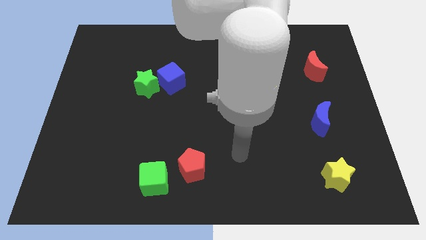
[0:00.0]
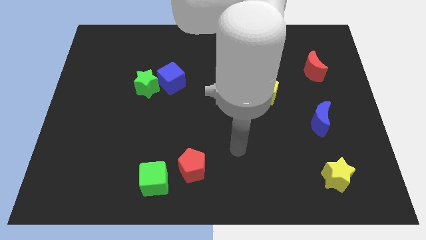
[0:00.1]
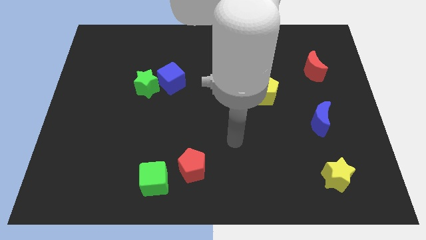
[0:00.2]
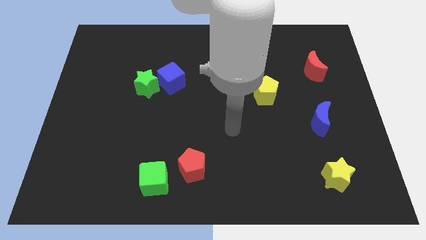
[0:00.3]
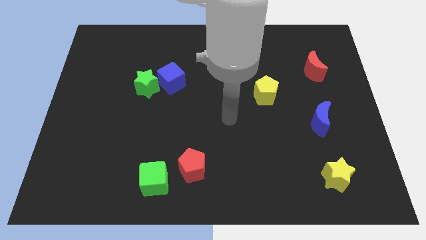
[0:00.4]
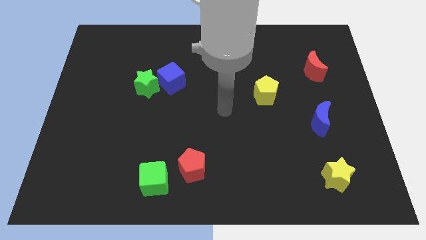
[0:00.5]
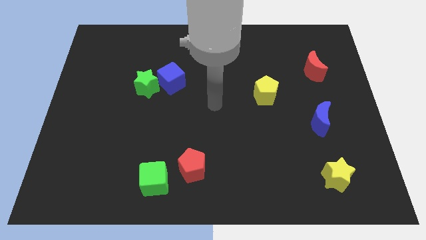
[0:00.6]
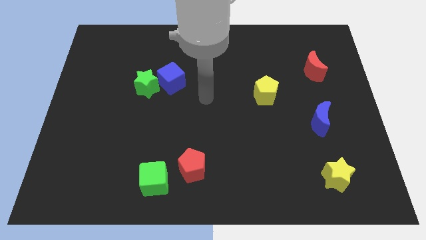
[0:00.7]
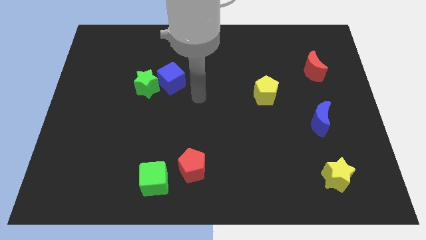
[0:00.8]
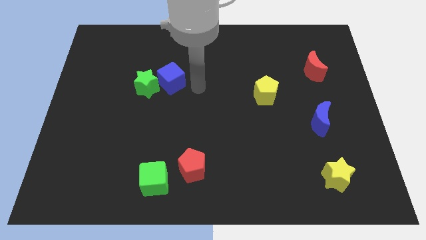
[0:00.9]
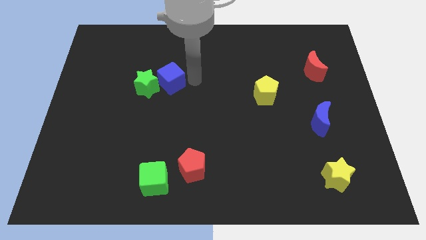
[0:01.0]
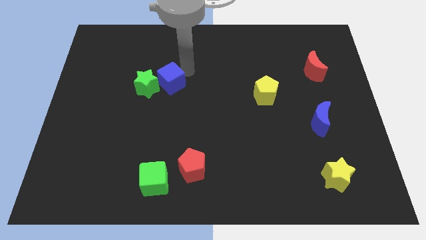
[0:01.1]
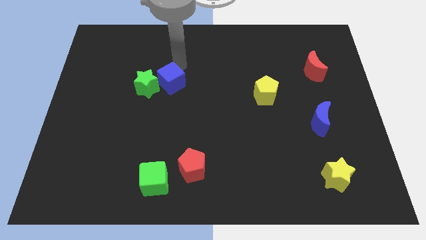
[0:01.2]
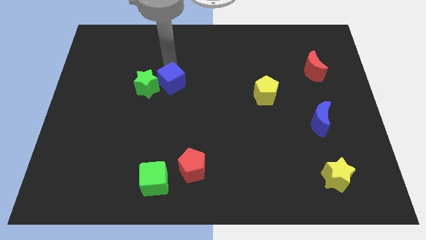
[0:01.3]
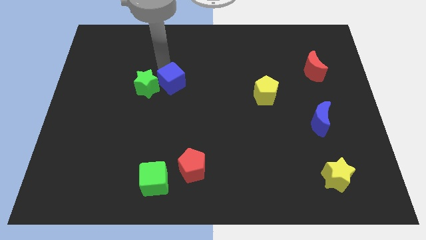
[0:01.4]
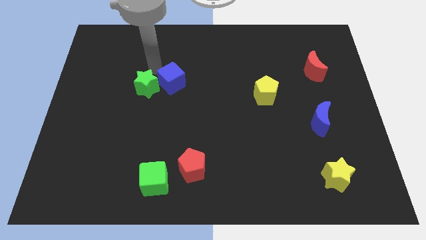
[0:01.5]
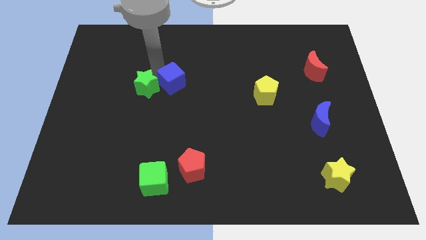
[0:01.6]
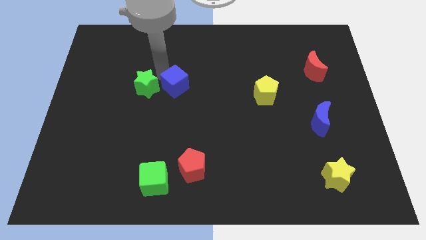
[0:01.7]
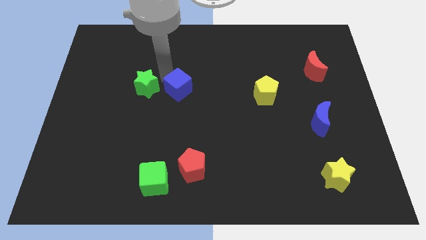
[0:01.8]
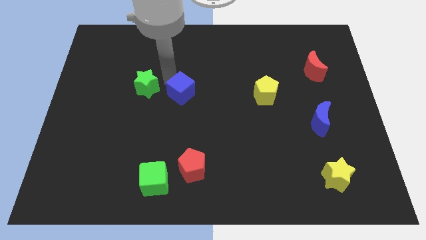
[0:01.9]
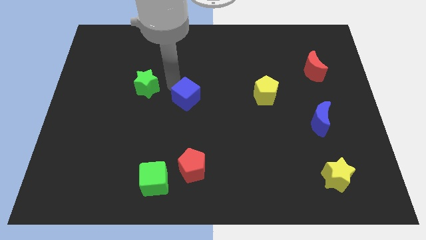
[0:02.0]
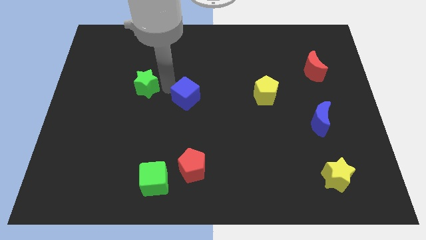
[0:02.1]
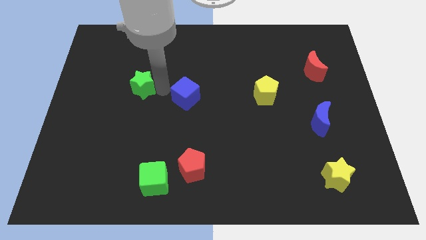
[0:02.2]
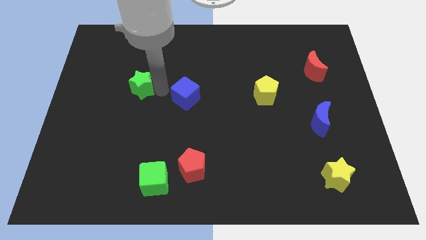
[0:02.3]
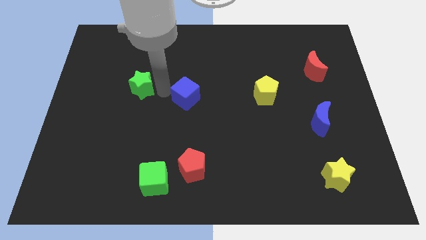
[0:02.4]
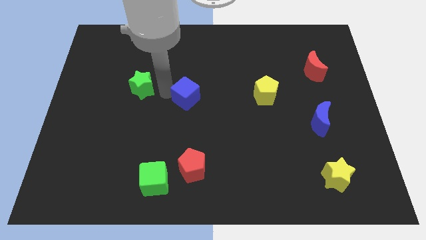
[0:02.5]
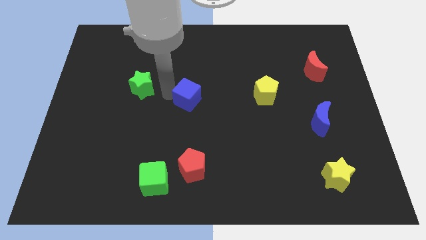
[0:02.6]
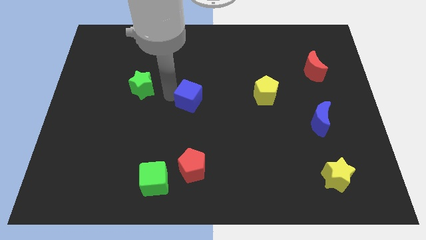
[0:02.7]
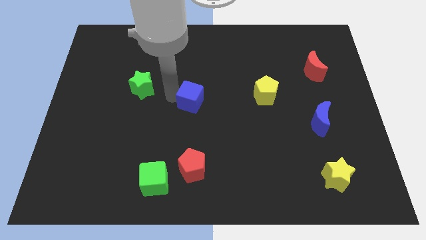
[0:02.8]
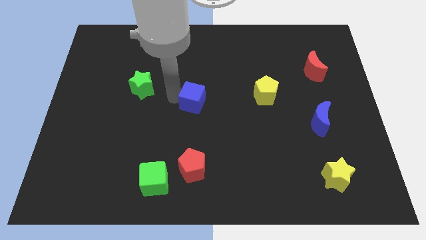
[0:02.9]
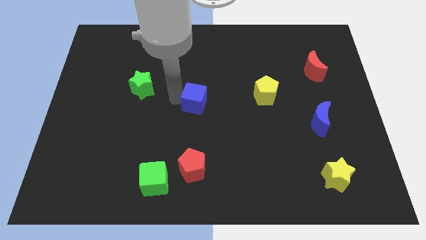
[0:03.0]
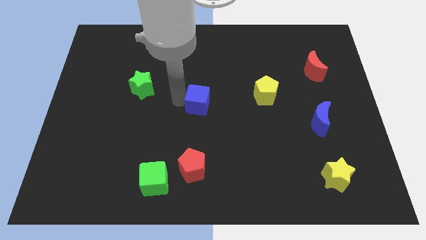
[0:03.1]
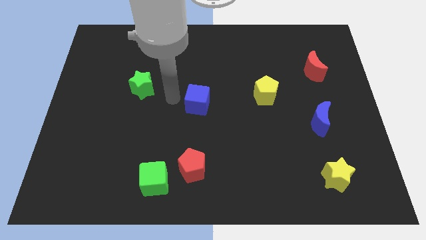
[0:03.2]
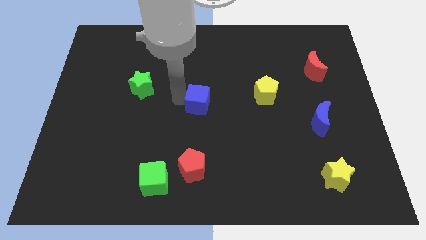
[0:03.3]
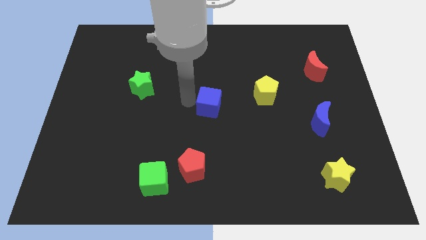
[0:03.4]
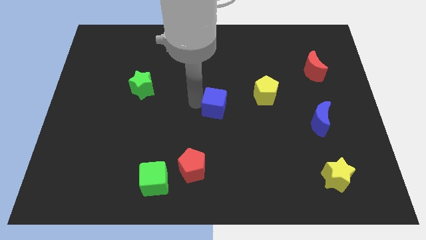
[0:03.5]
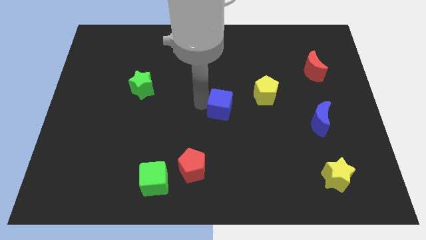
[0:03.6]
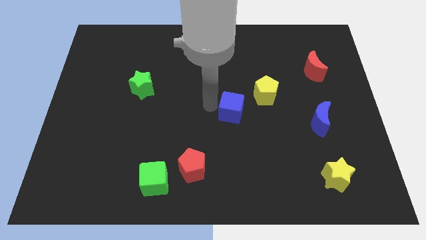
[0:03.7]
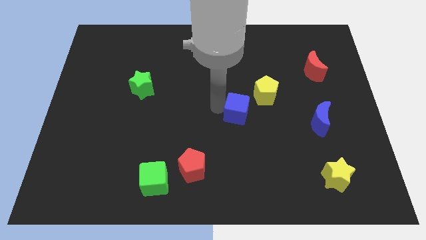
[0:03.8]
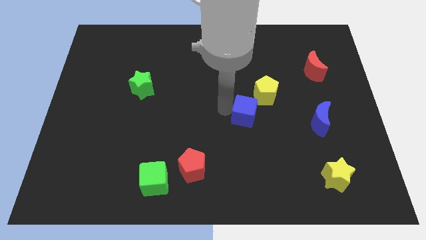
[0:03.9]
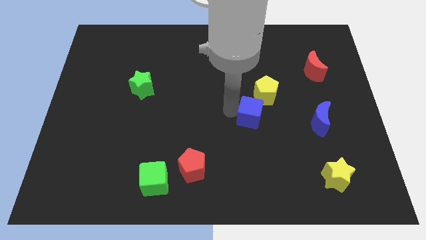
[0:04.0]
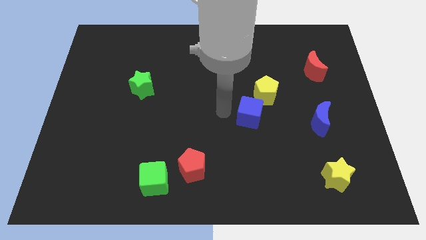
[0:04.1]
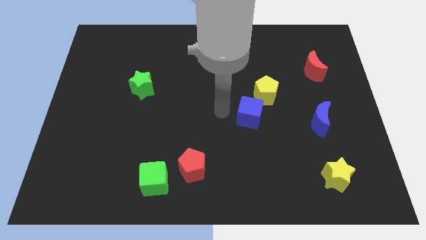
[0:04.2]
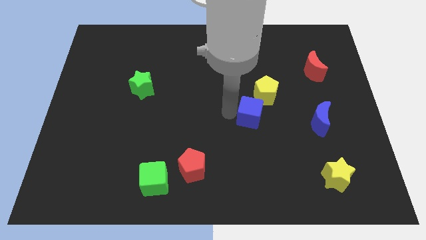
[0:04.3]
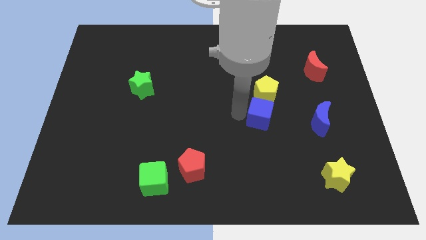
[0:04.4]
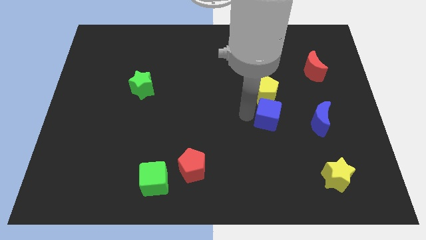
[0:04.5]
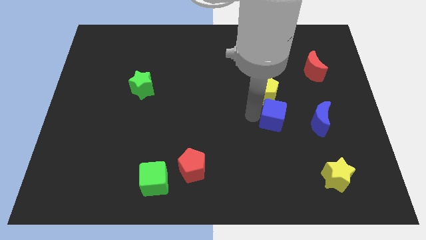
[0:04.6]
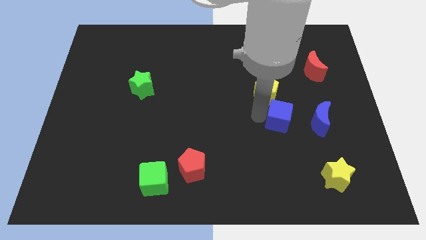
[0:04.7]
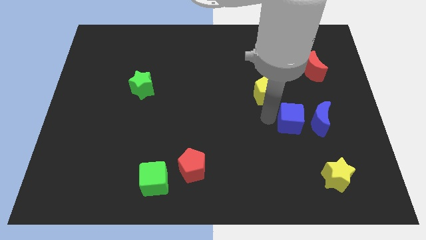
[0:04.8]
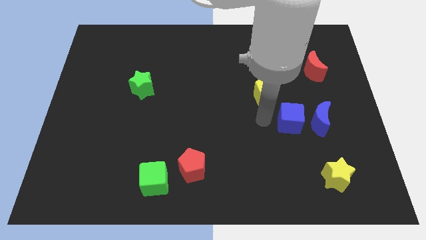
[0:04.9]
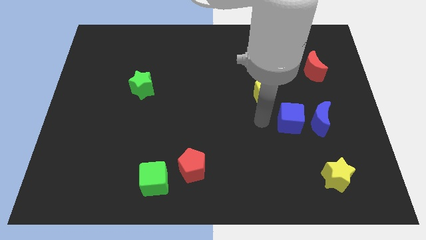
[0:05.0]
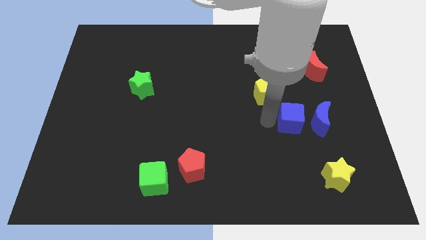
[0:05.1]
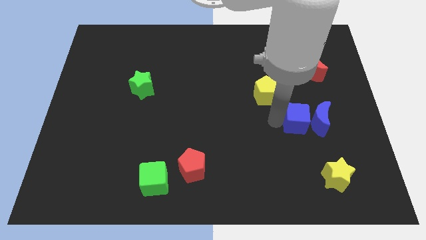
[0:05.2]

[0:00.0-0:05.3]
move the blue cube next to the blue moon

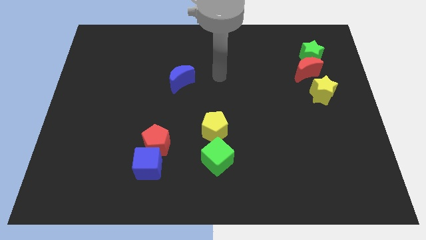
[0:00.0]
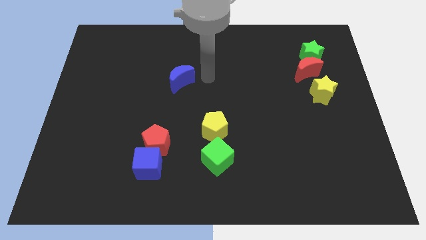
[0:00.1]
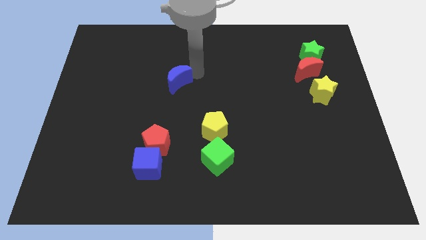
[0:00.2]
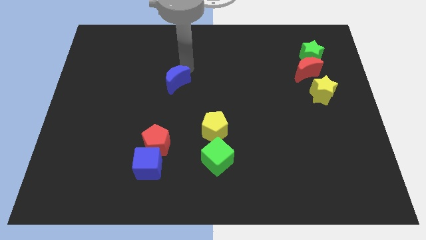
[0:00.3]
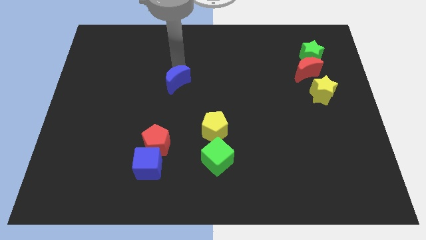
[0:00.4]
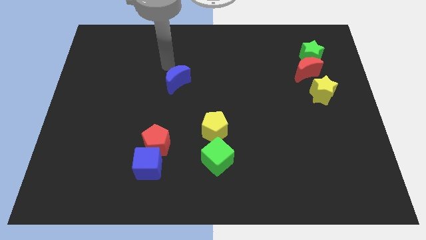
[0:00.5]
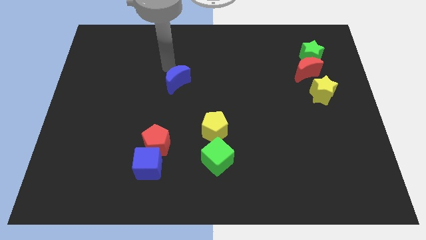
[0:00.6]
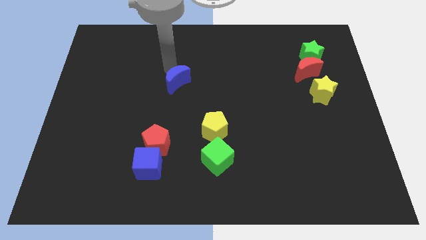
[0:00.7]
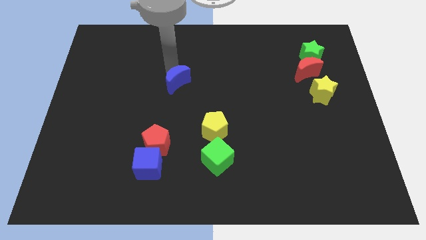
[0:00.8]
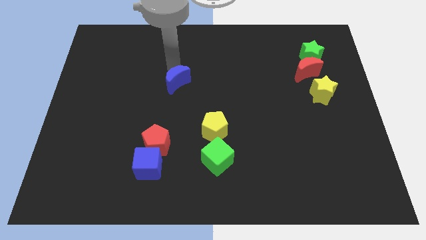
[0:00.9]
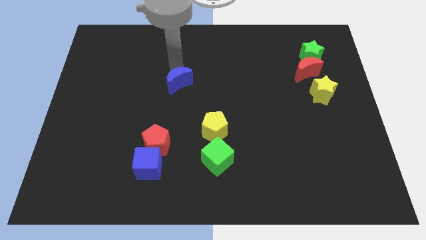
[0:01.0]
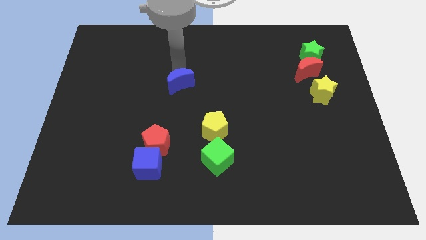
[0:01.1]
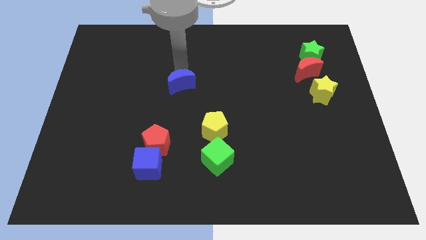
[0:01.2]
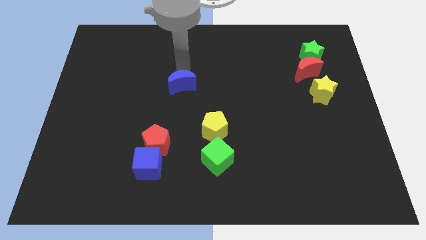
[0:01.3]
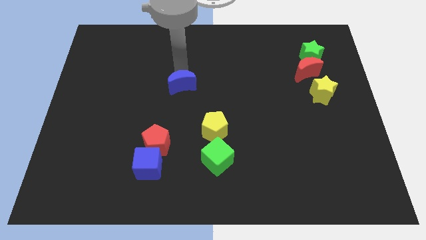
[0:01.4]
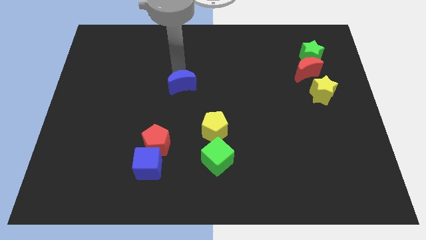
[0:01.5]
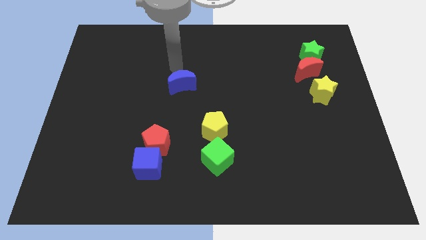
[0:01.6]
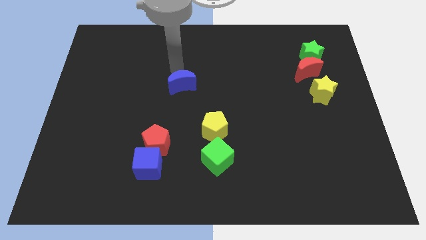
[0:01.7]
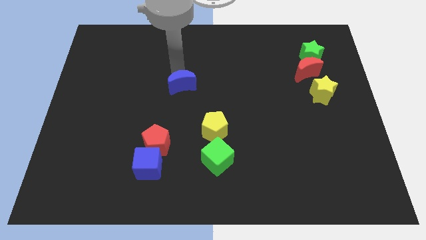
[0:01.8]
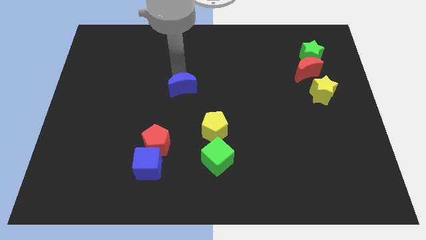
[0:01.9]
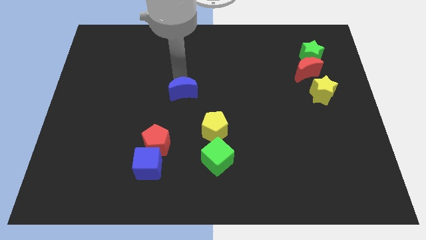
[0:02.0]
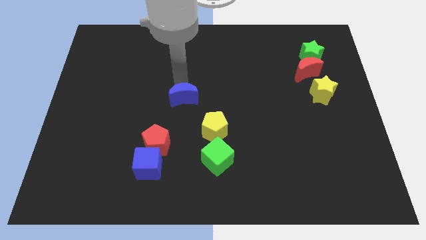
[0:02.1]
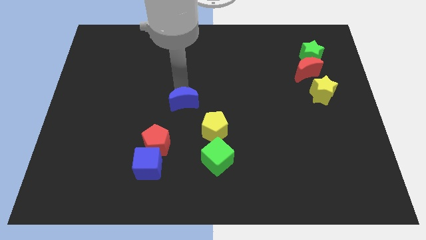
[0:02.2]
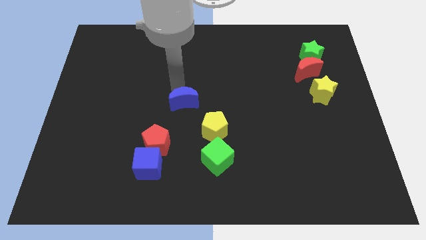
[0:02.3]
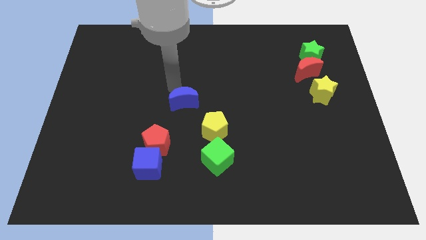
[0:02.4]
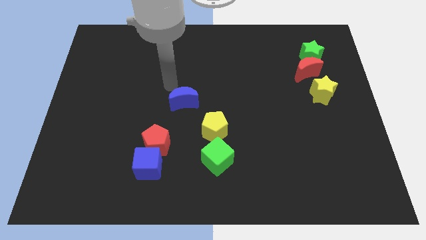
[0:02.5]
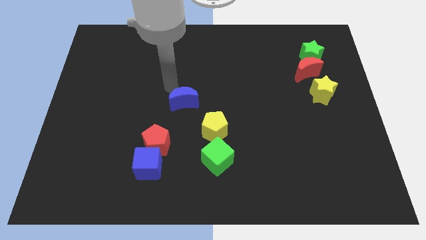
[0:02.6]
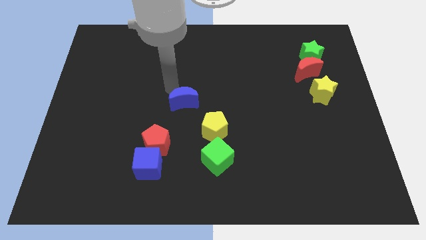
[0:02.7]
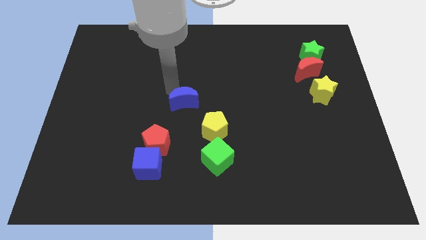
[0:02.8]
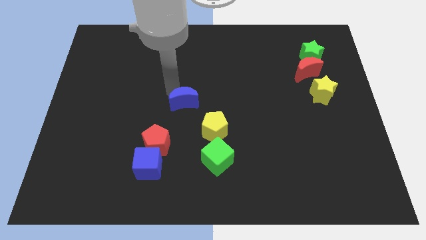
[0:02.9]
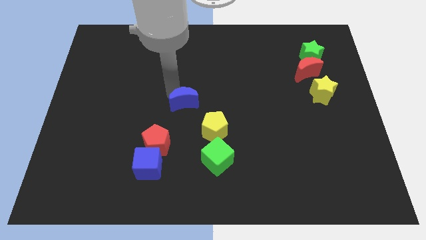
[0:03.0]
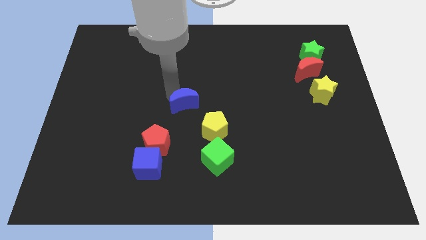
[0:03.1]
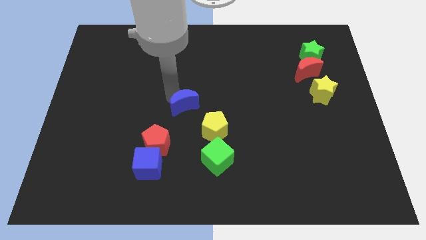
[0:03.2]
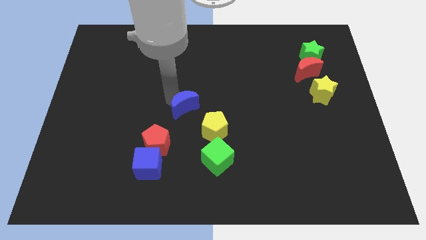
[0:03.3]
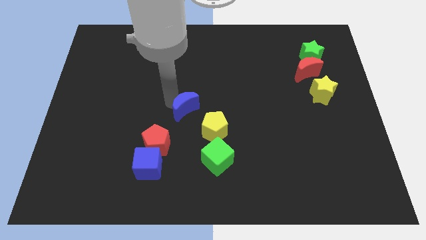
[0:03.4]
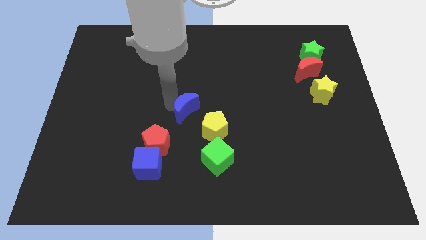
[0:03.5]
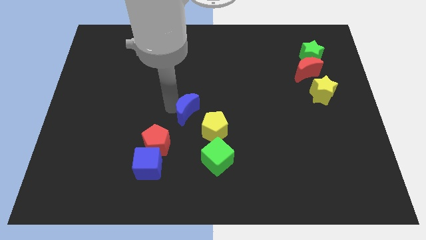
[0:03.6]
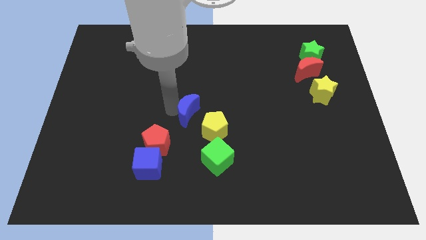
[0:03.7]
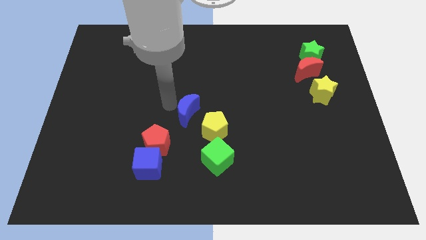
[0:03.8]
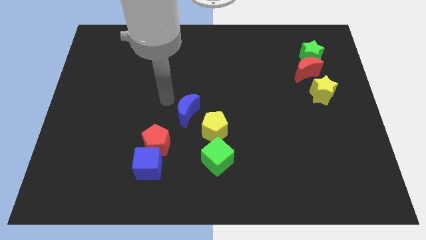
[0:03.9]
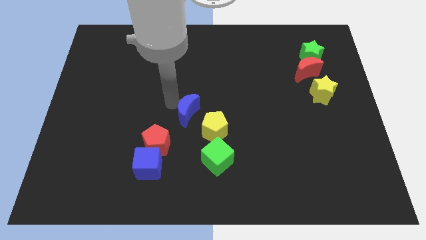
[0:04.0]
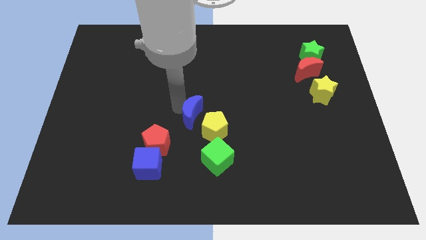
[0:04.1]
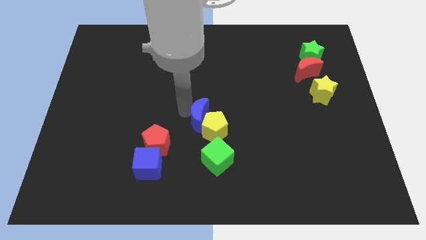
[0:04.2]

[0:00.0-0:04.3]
move the blue moon to the yellow pentagon
